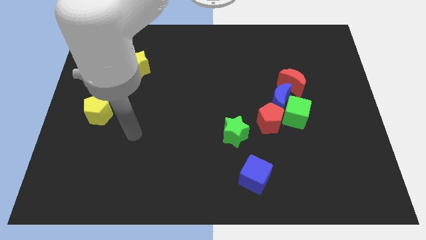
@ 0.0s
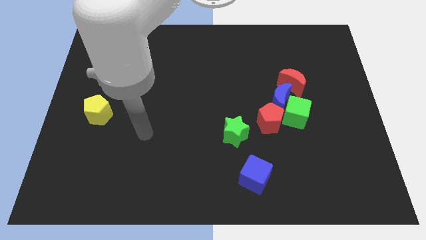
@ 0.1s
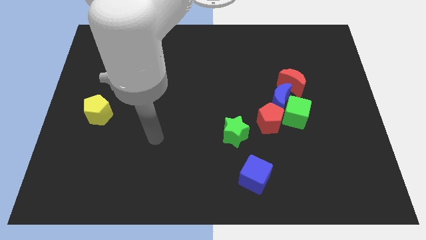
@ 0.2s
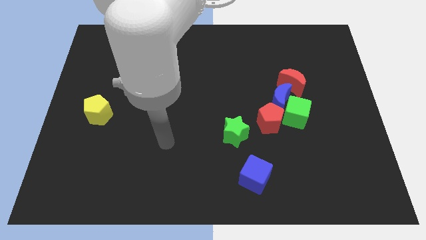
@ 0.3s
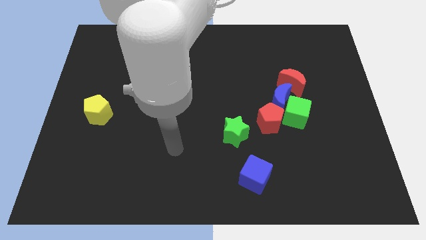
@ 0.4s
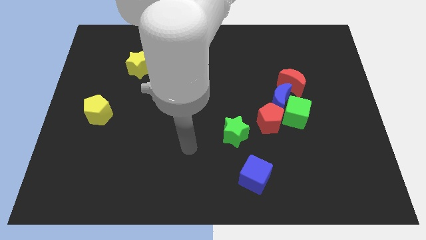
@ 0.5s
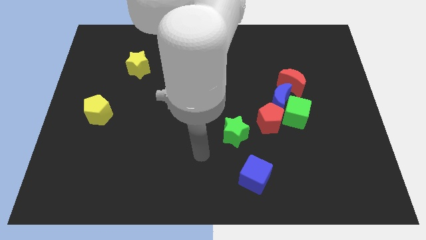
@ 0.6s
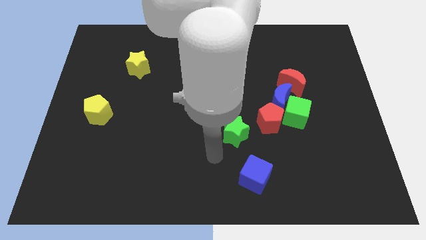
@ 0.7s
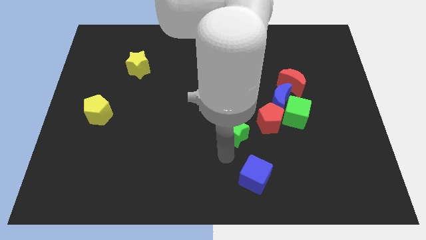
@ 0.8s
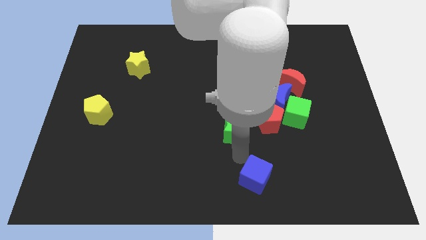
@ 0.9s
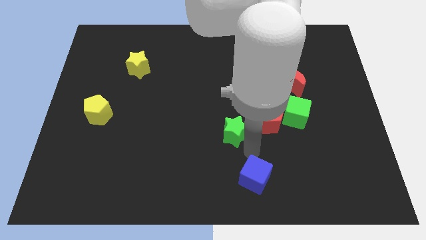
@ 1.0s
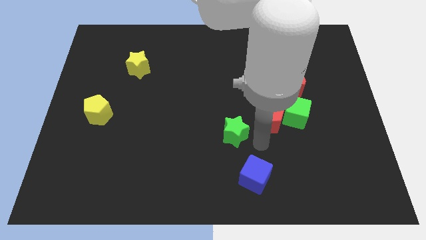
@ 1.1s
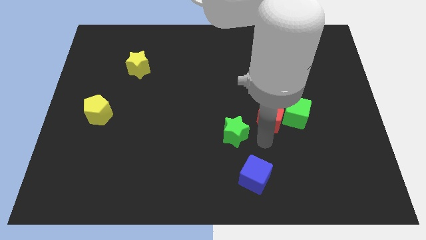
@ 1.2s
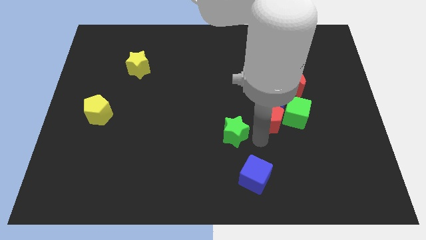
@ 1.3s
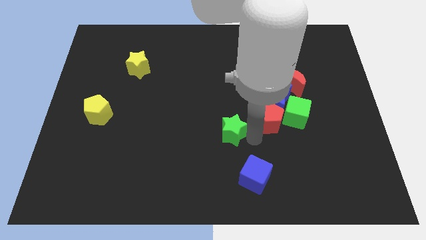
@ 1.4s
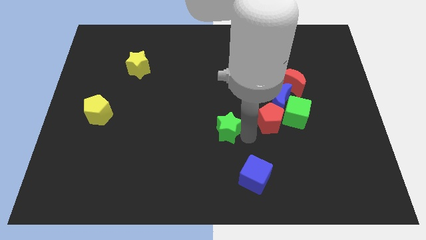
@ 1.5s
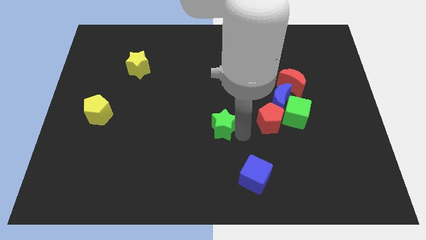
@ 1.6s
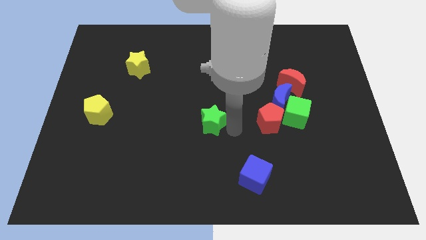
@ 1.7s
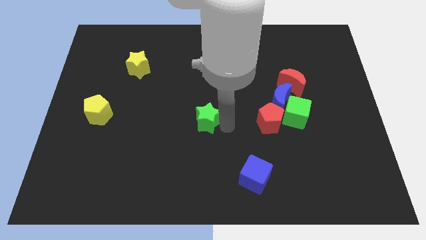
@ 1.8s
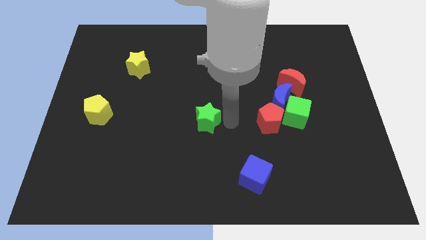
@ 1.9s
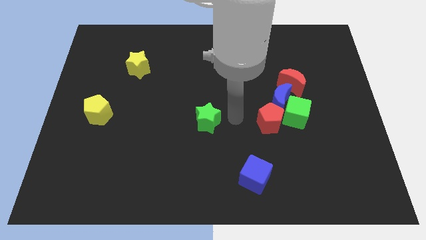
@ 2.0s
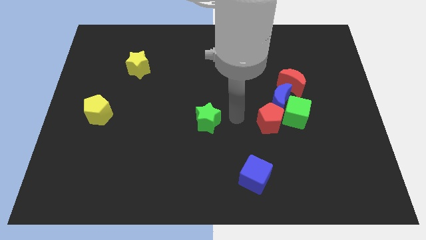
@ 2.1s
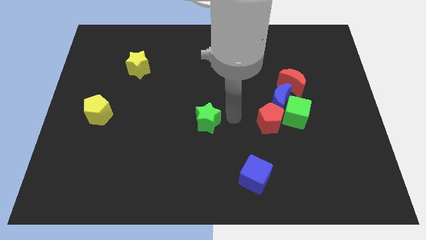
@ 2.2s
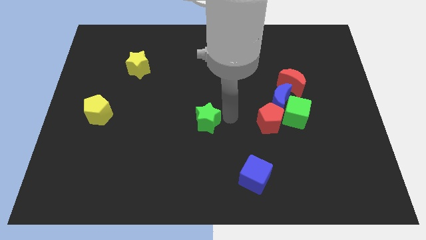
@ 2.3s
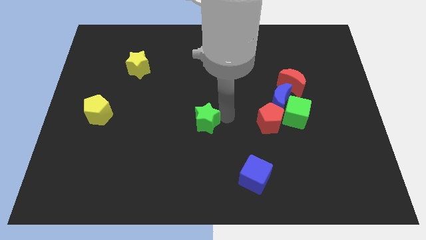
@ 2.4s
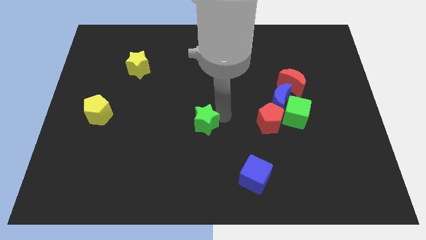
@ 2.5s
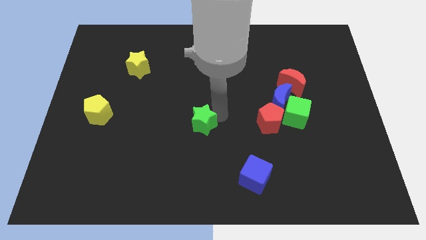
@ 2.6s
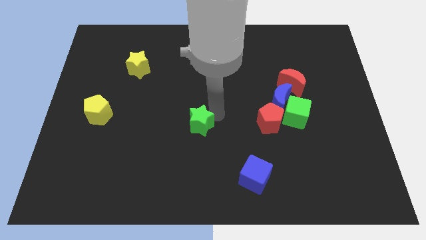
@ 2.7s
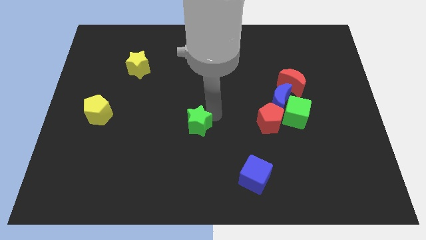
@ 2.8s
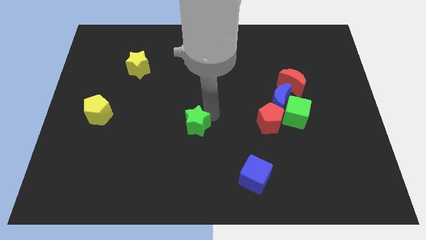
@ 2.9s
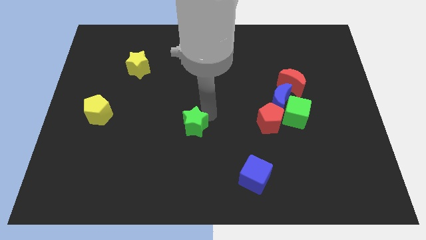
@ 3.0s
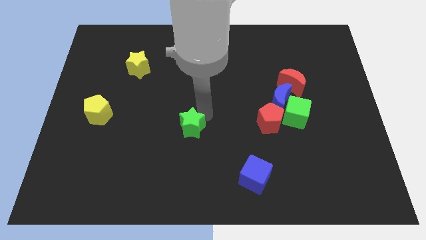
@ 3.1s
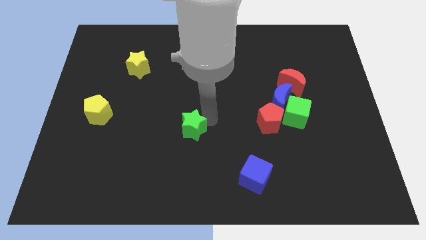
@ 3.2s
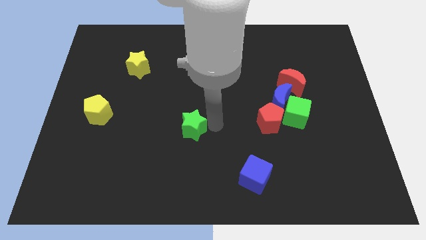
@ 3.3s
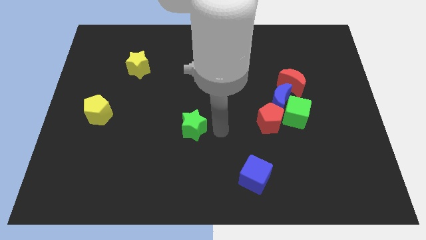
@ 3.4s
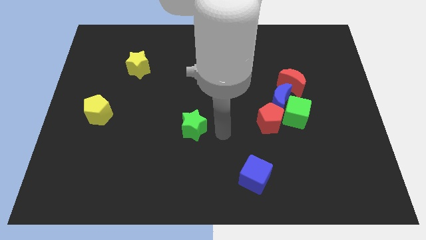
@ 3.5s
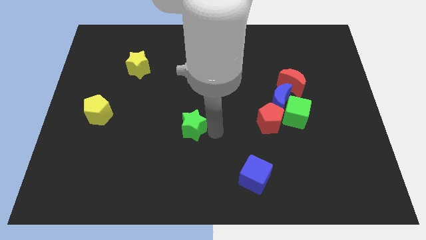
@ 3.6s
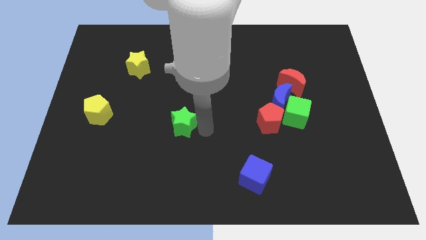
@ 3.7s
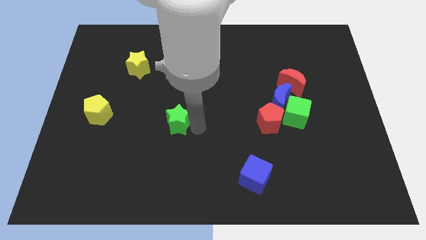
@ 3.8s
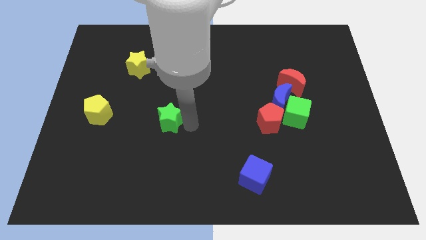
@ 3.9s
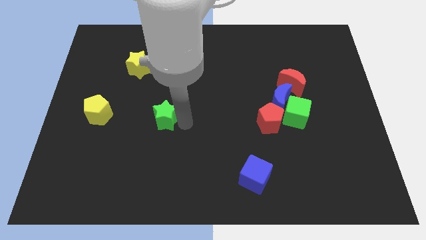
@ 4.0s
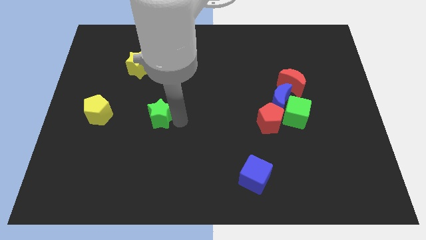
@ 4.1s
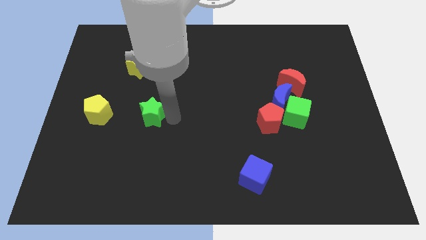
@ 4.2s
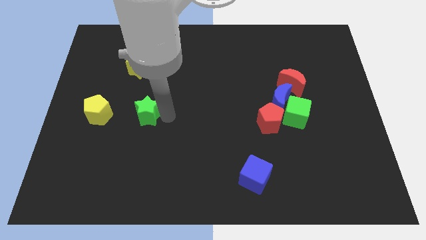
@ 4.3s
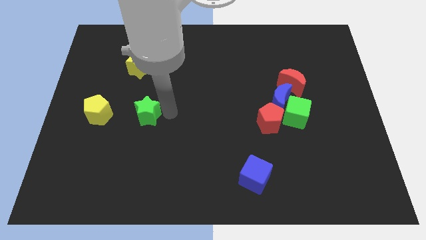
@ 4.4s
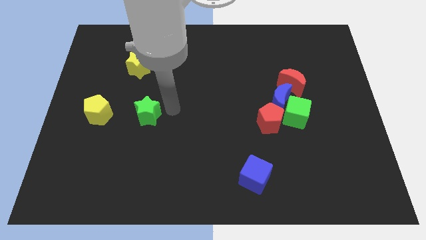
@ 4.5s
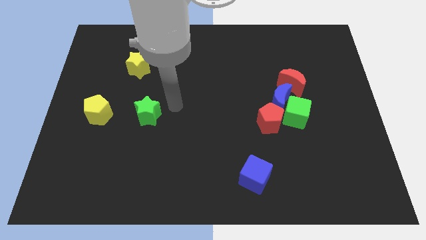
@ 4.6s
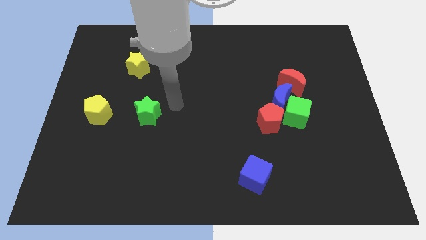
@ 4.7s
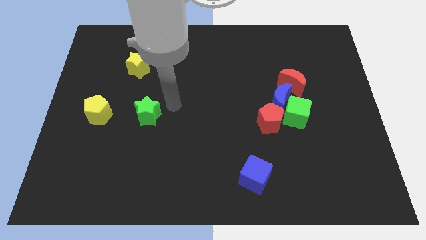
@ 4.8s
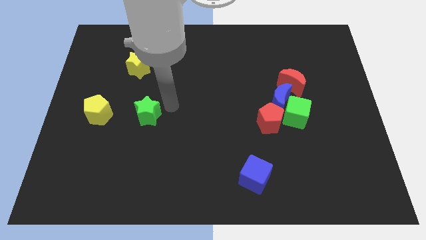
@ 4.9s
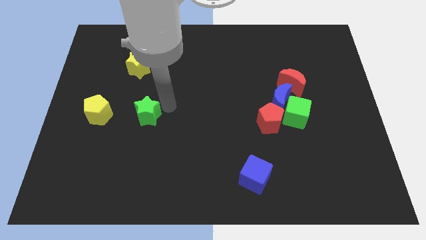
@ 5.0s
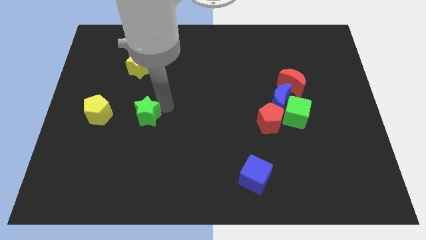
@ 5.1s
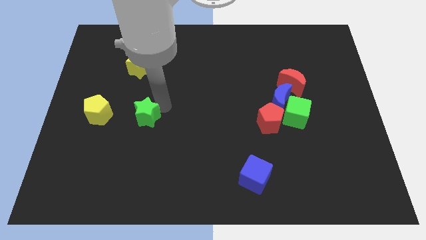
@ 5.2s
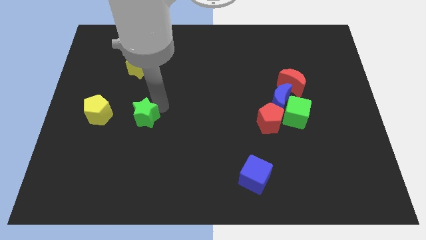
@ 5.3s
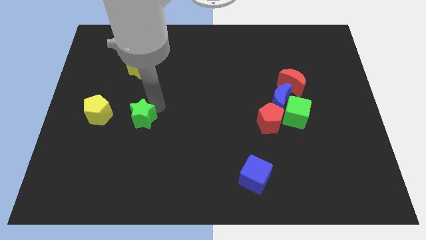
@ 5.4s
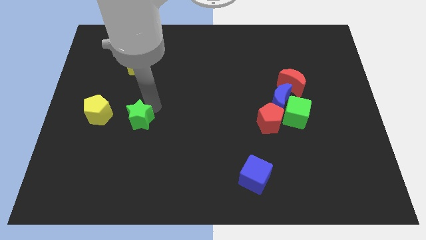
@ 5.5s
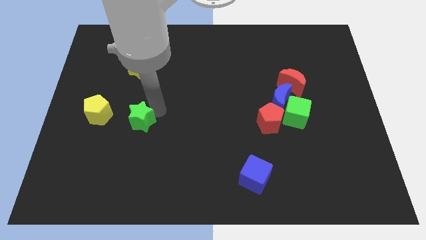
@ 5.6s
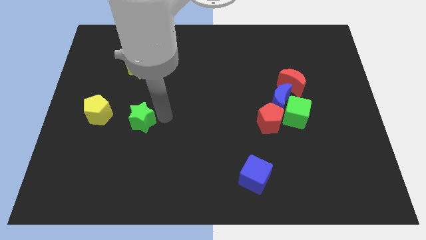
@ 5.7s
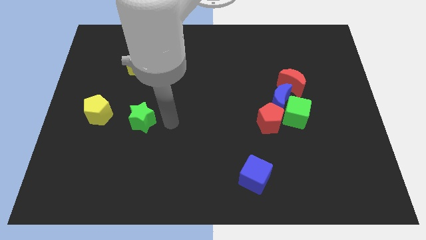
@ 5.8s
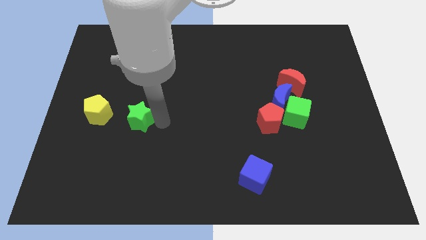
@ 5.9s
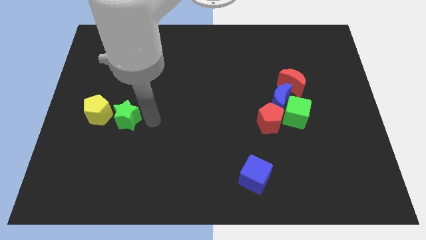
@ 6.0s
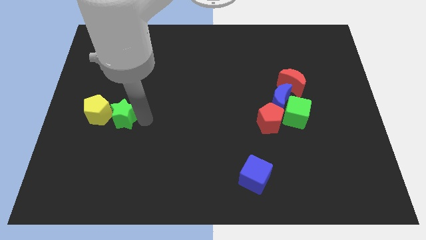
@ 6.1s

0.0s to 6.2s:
move the green star next to the yellow pentagon
